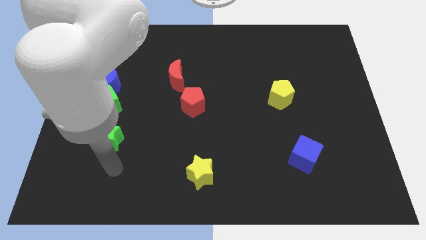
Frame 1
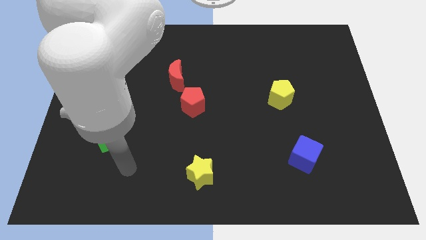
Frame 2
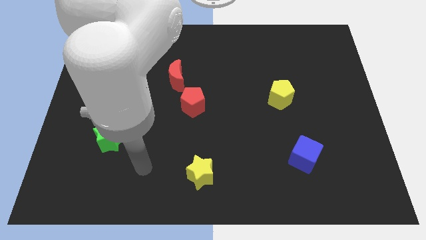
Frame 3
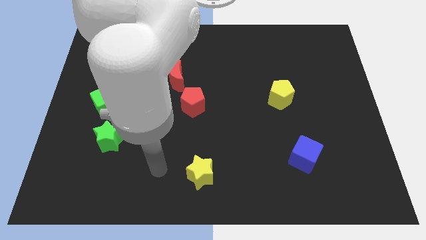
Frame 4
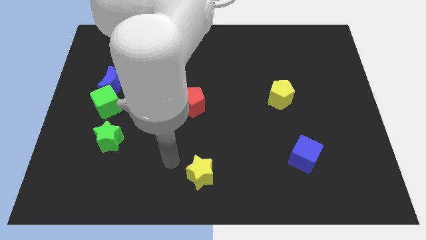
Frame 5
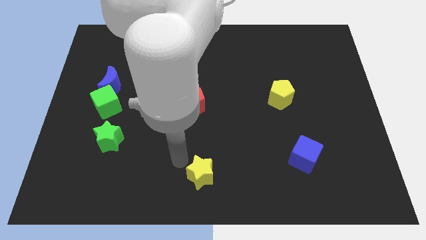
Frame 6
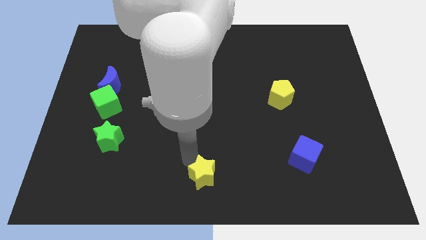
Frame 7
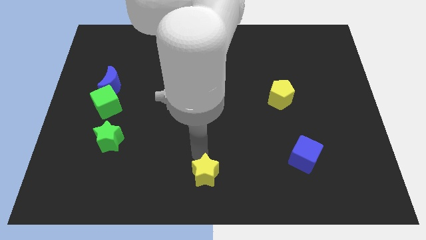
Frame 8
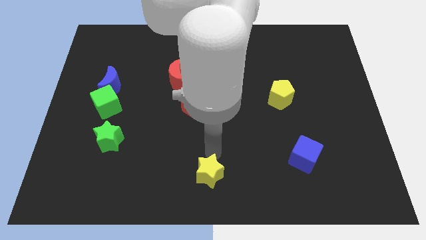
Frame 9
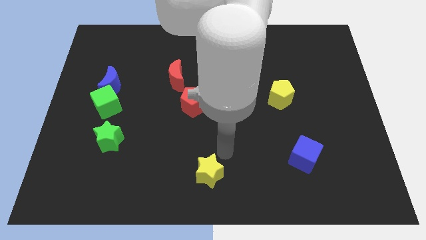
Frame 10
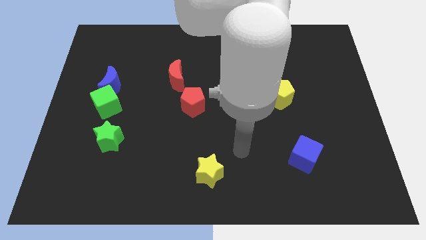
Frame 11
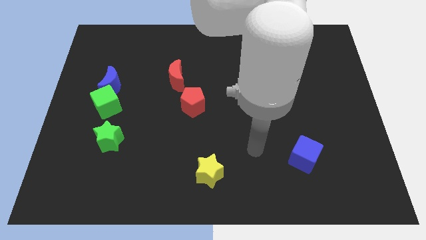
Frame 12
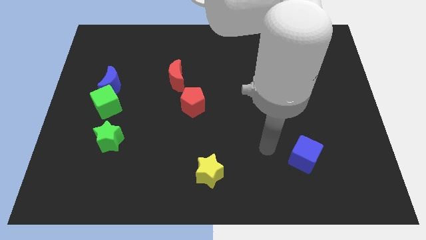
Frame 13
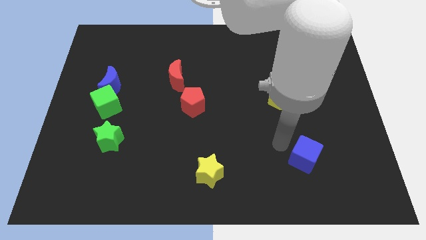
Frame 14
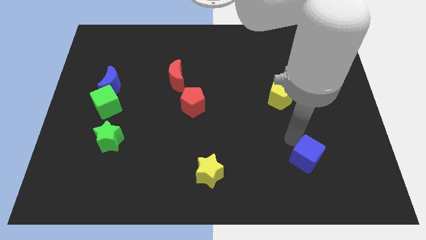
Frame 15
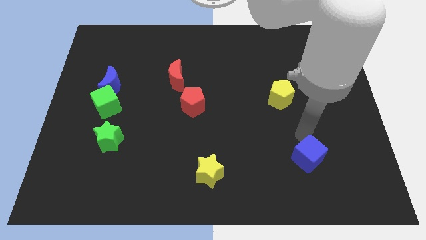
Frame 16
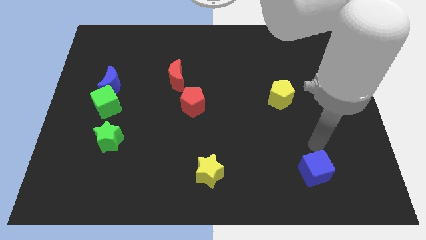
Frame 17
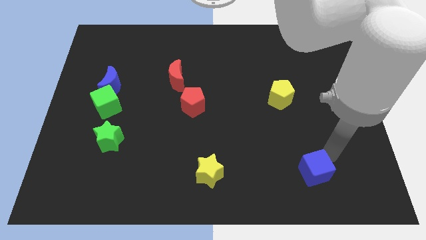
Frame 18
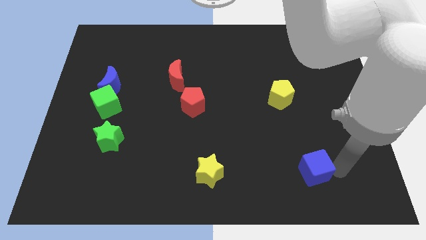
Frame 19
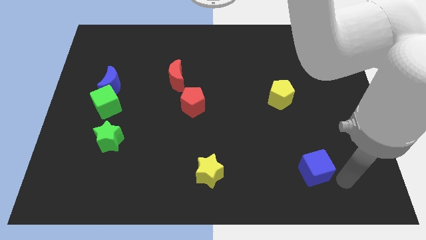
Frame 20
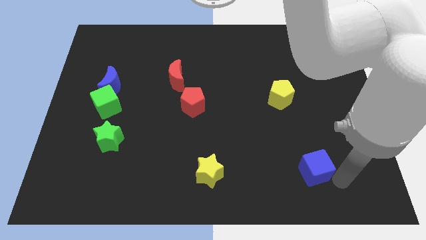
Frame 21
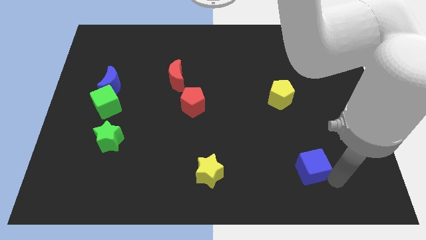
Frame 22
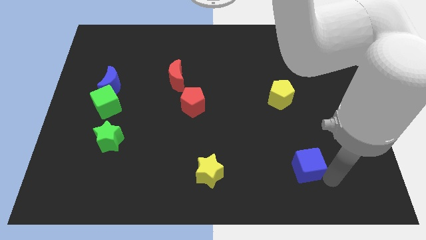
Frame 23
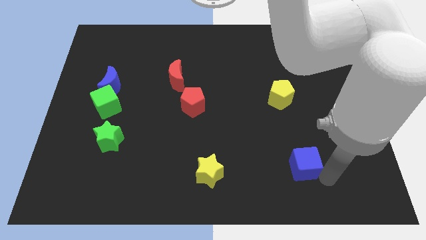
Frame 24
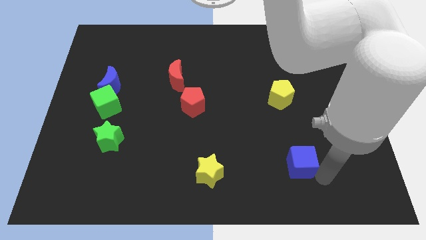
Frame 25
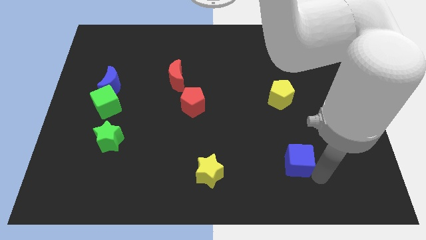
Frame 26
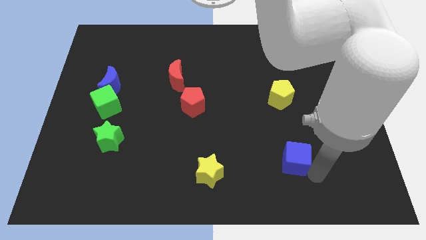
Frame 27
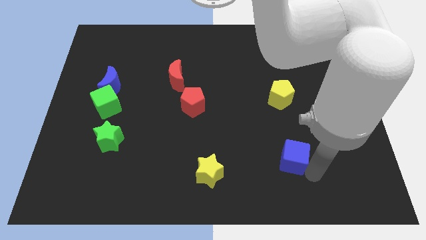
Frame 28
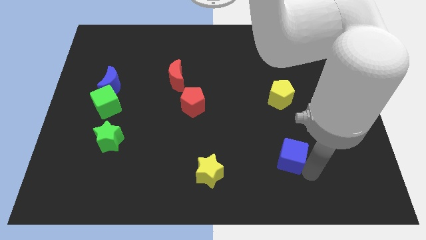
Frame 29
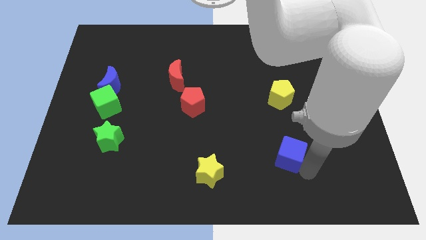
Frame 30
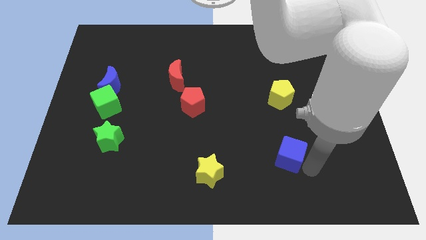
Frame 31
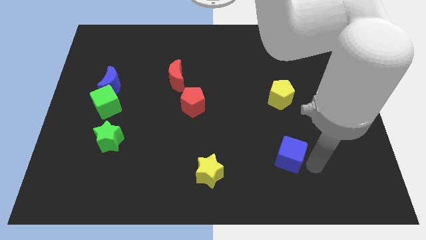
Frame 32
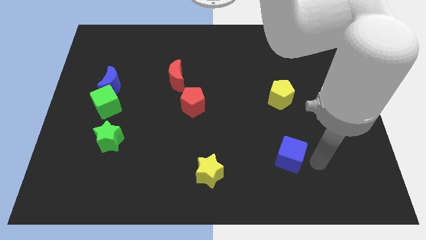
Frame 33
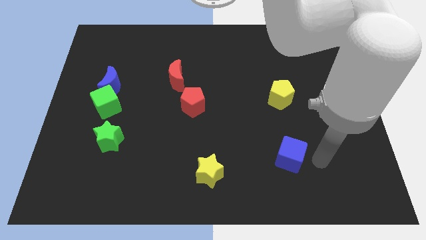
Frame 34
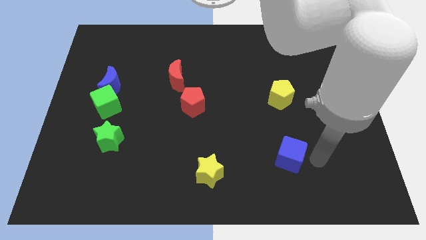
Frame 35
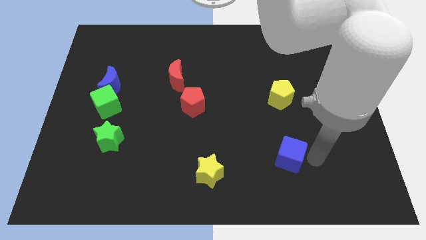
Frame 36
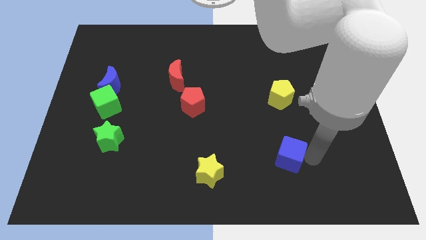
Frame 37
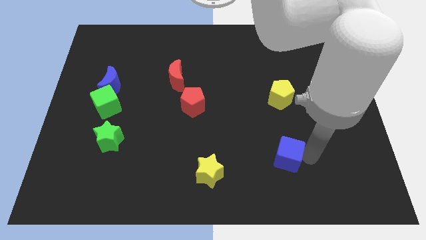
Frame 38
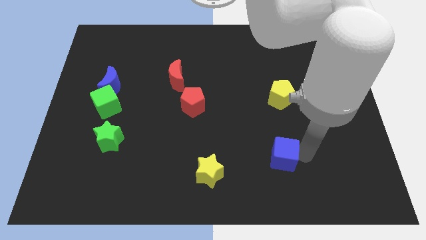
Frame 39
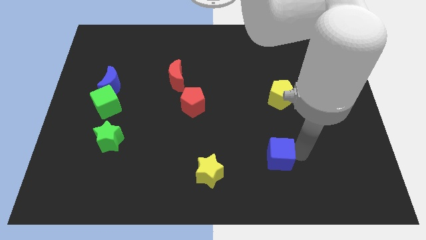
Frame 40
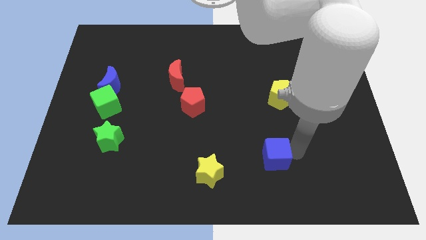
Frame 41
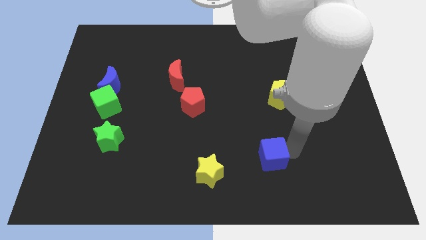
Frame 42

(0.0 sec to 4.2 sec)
slightly slide the blue cube to the left

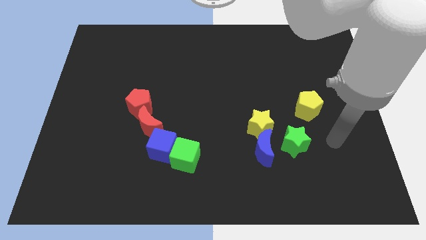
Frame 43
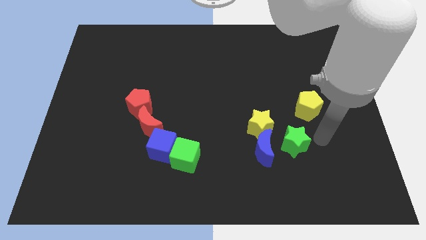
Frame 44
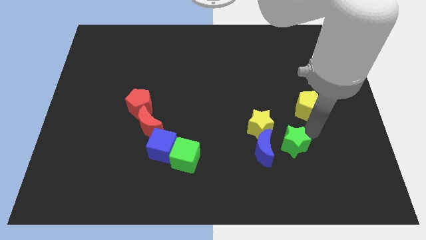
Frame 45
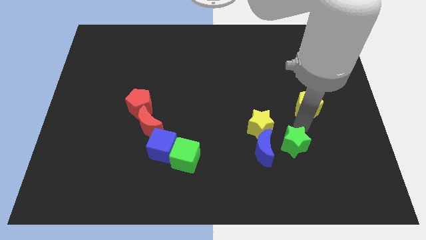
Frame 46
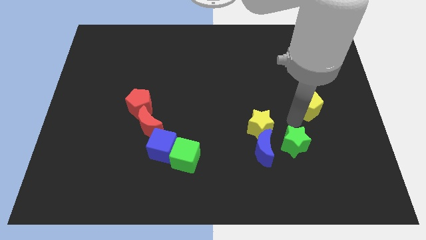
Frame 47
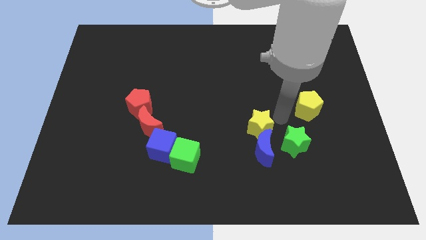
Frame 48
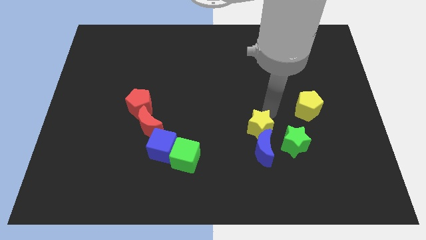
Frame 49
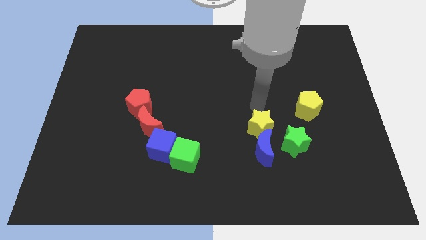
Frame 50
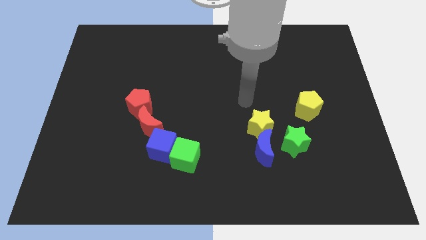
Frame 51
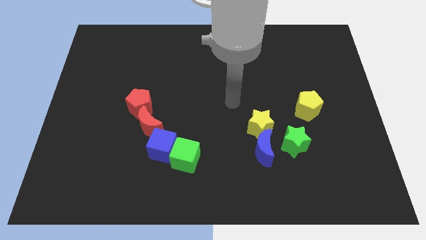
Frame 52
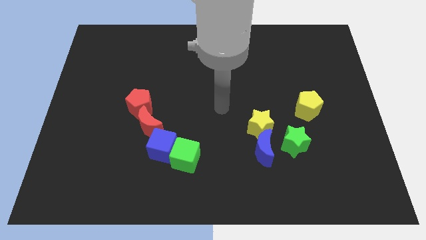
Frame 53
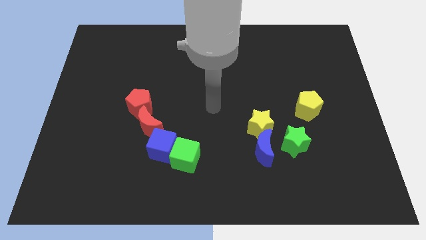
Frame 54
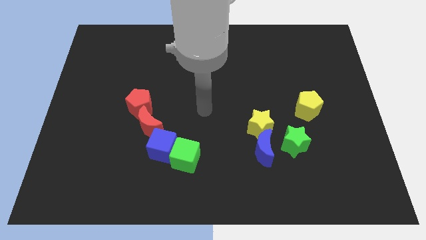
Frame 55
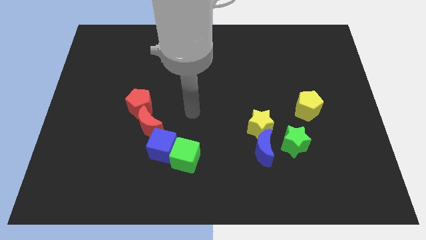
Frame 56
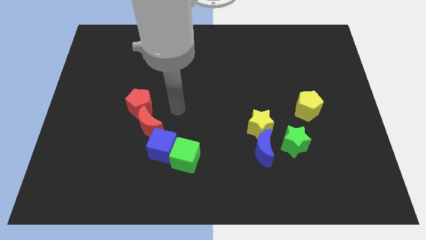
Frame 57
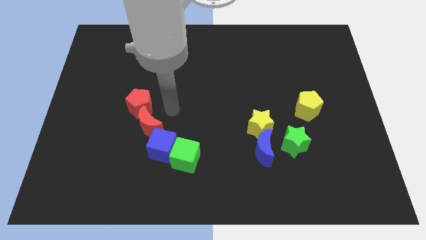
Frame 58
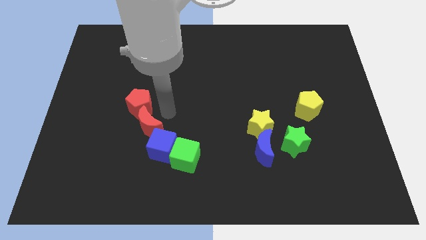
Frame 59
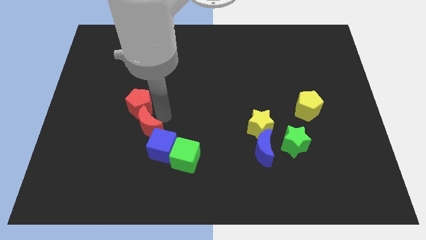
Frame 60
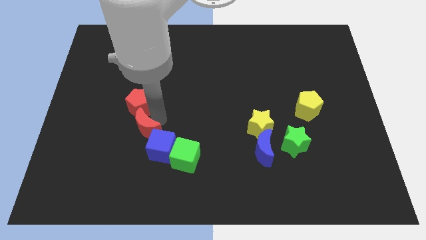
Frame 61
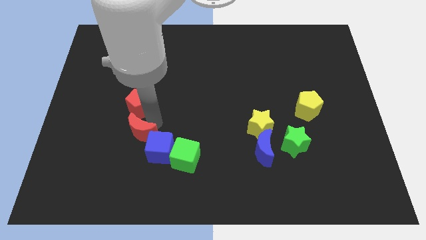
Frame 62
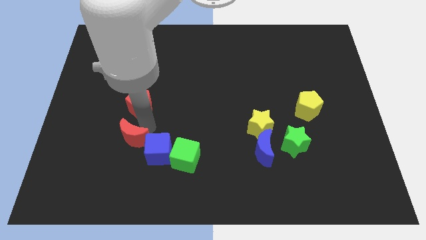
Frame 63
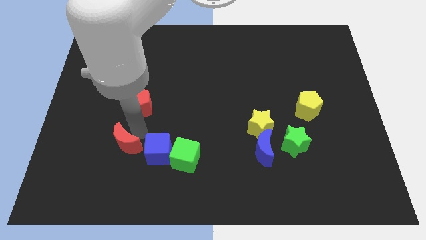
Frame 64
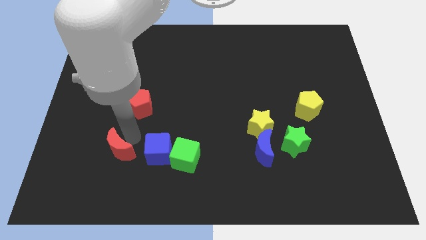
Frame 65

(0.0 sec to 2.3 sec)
slightly move the red moon downwards and to the left

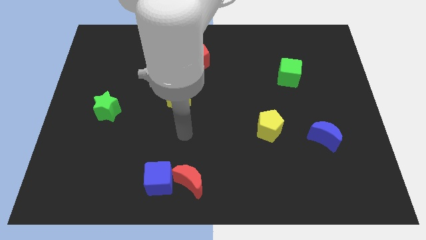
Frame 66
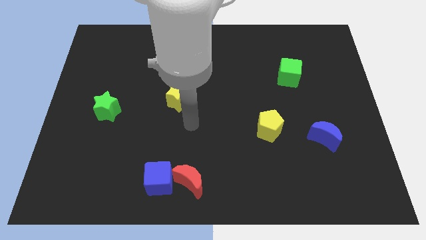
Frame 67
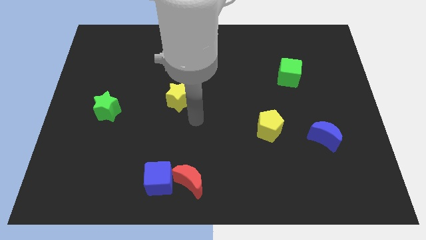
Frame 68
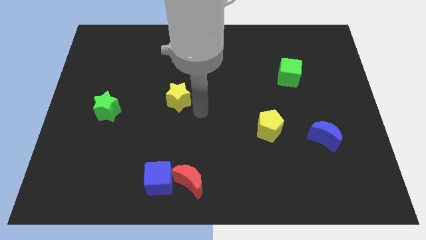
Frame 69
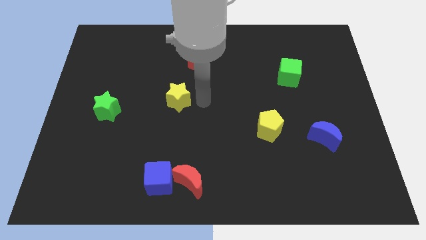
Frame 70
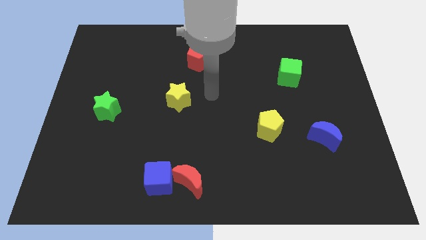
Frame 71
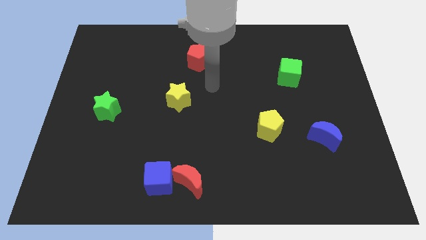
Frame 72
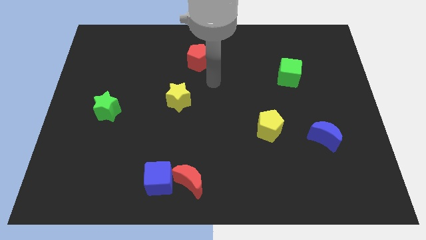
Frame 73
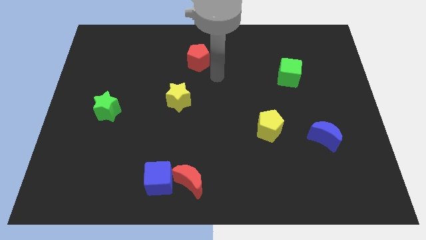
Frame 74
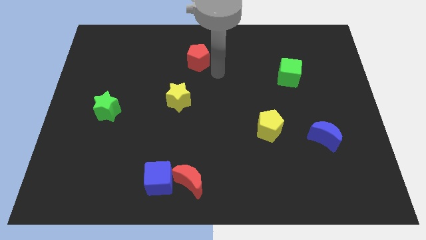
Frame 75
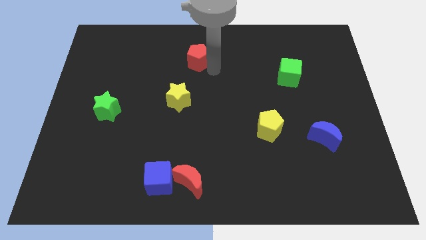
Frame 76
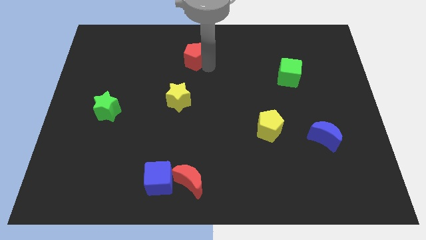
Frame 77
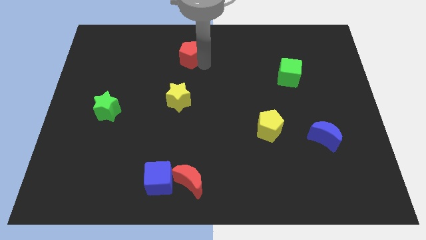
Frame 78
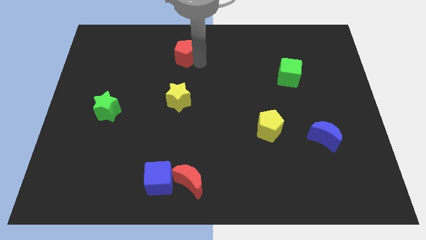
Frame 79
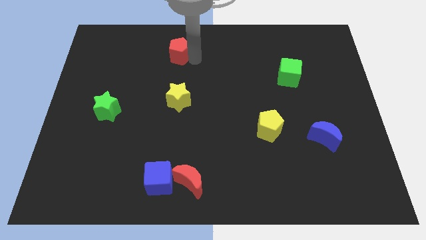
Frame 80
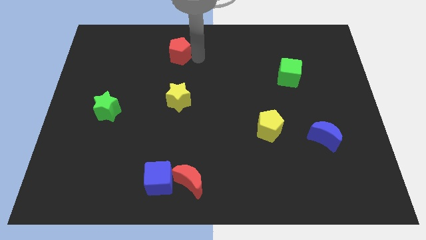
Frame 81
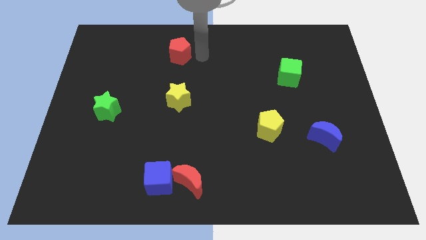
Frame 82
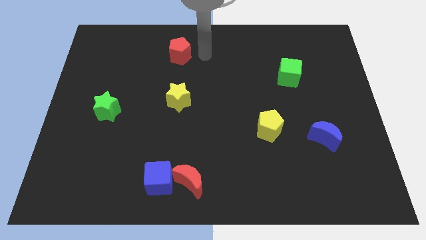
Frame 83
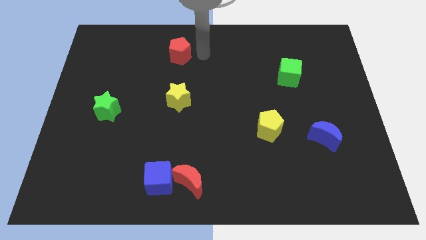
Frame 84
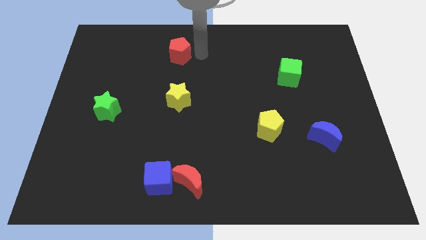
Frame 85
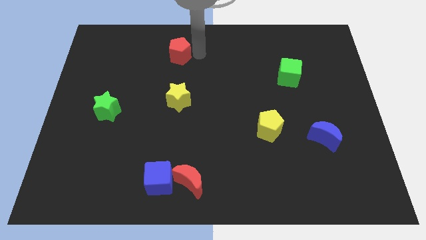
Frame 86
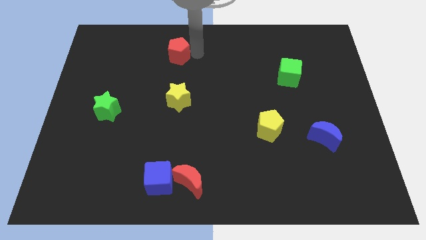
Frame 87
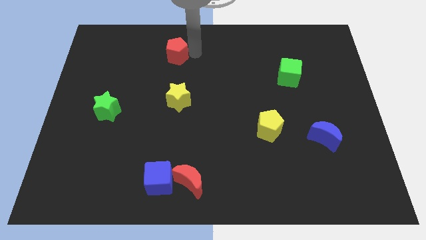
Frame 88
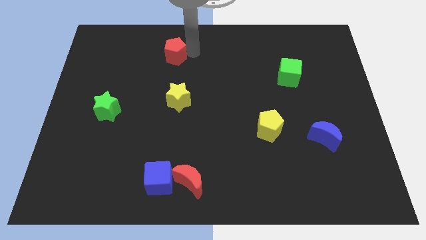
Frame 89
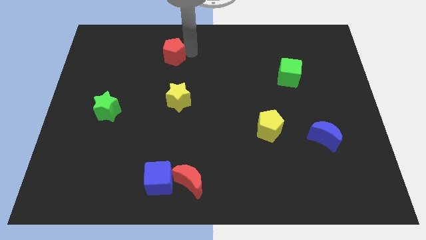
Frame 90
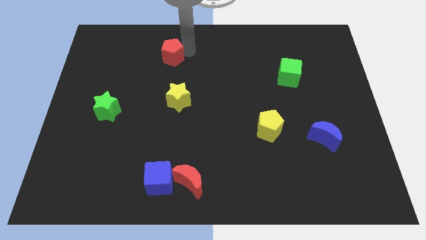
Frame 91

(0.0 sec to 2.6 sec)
slide the red pentagon left a little bit
